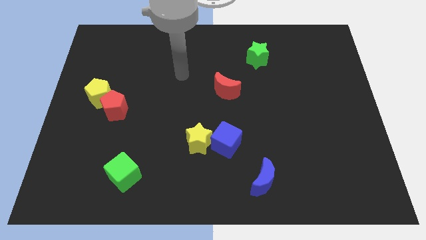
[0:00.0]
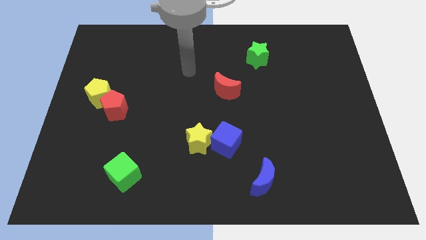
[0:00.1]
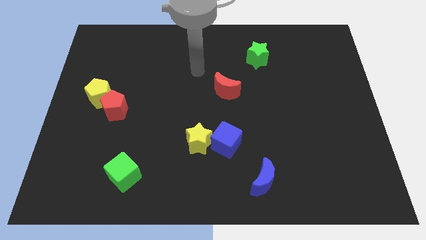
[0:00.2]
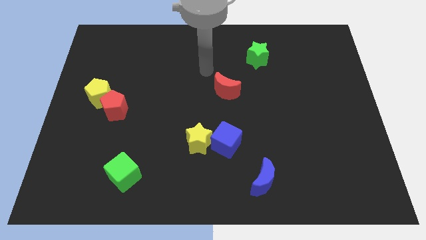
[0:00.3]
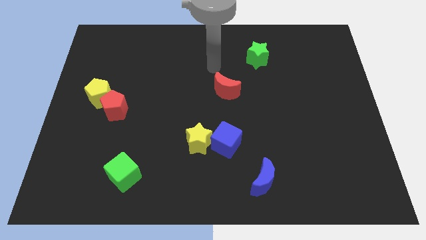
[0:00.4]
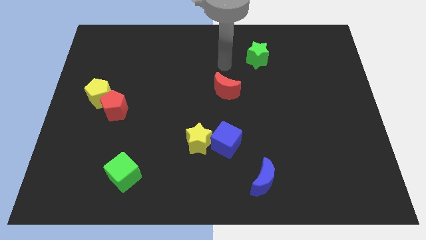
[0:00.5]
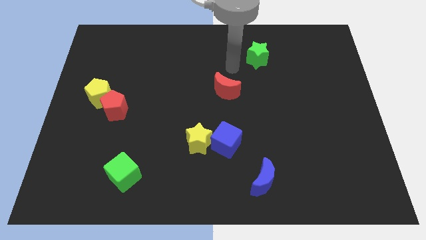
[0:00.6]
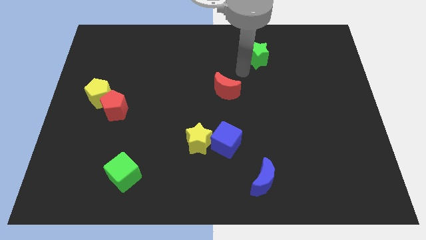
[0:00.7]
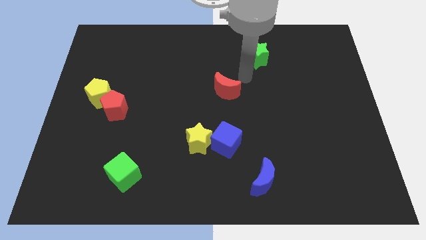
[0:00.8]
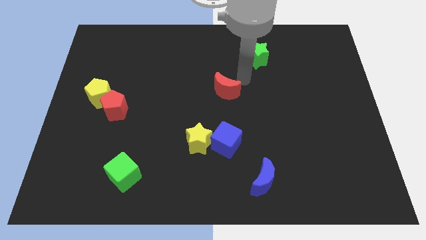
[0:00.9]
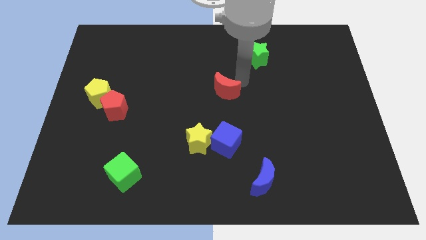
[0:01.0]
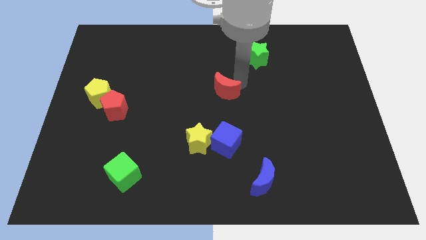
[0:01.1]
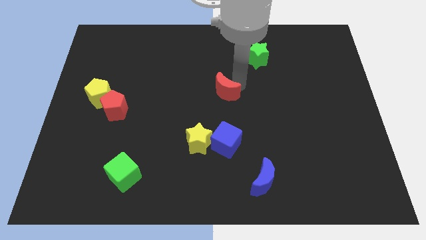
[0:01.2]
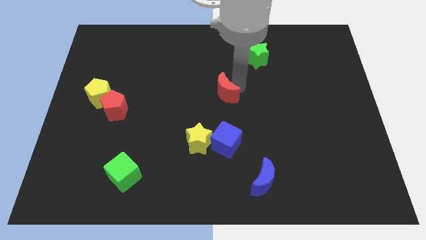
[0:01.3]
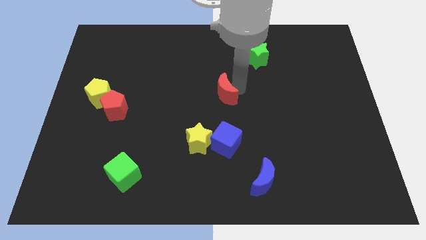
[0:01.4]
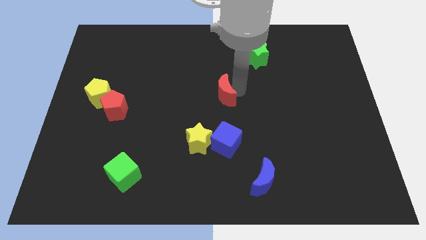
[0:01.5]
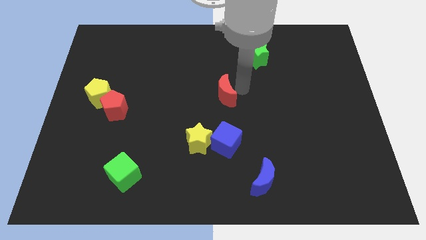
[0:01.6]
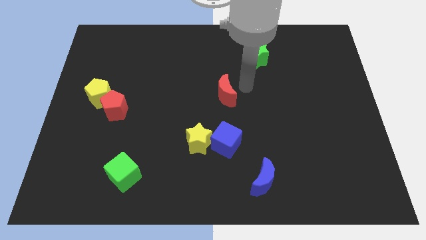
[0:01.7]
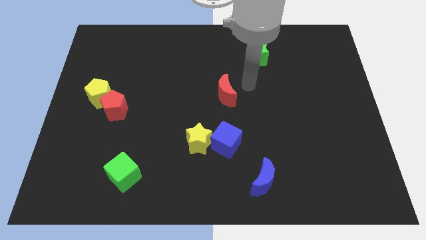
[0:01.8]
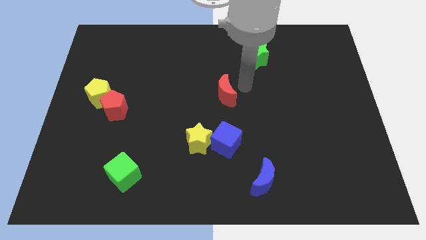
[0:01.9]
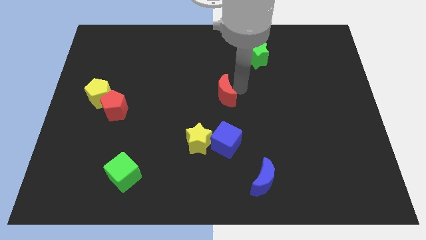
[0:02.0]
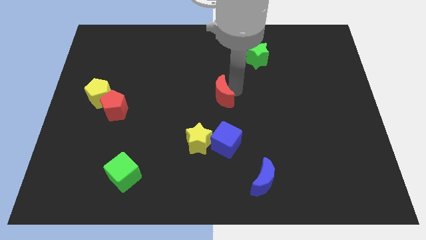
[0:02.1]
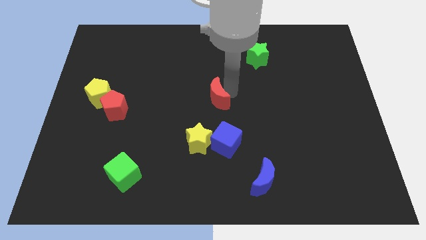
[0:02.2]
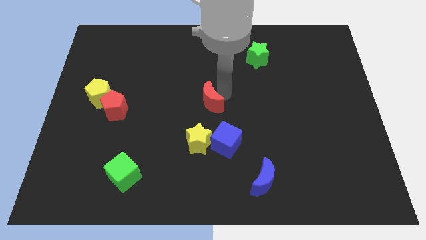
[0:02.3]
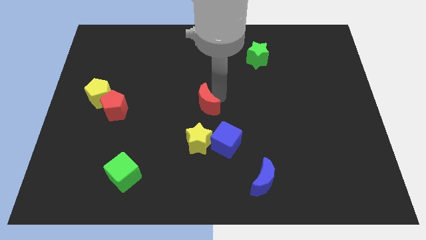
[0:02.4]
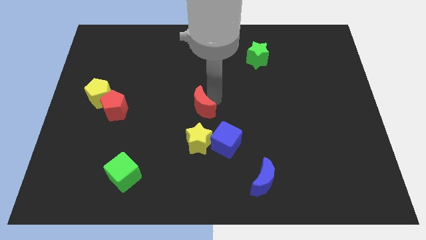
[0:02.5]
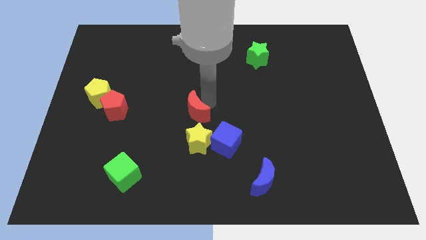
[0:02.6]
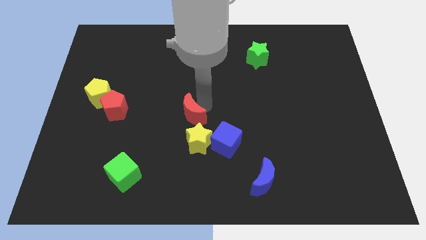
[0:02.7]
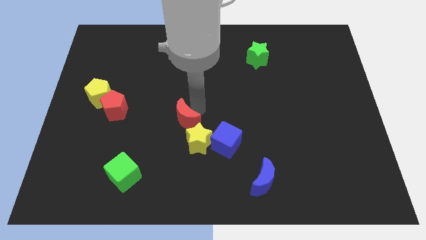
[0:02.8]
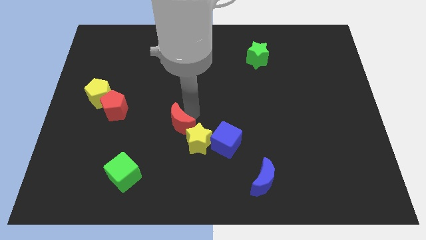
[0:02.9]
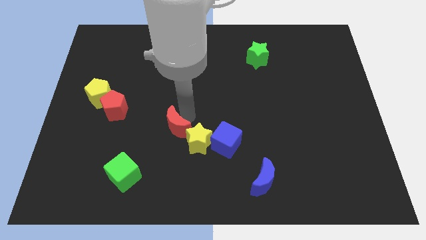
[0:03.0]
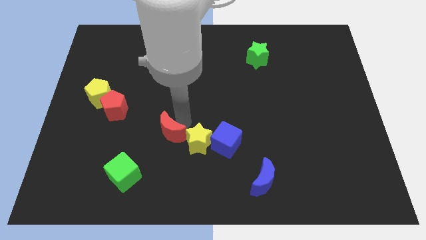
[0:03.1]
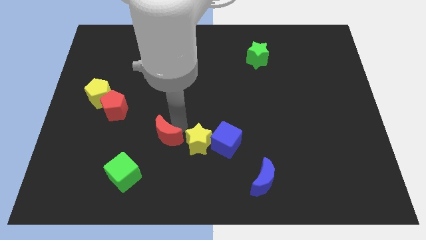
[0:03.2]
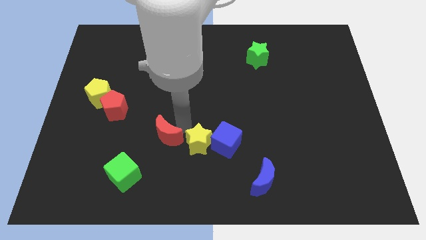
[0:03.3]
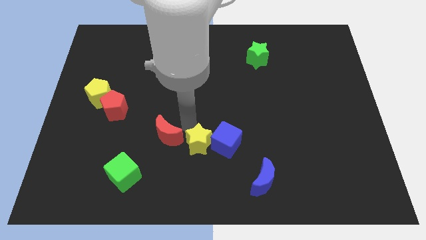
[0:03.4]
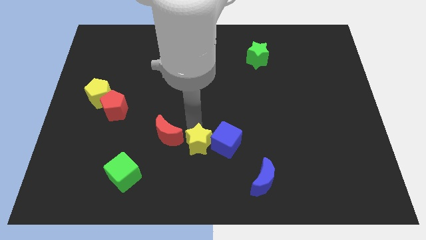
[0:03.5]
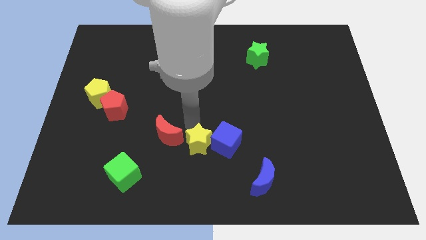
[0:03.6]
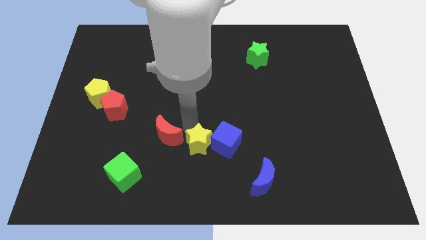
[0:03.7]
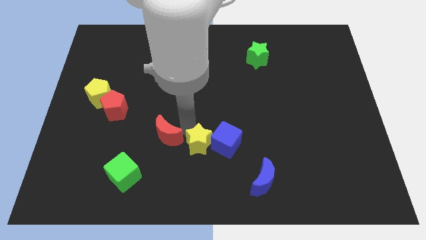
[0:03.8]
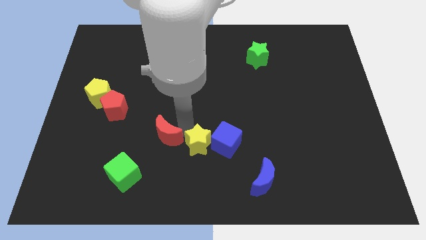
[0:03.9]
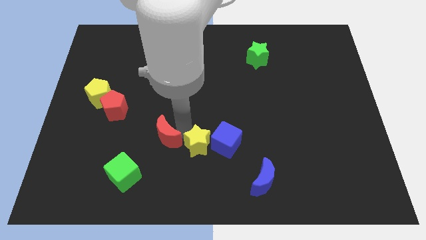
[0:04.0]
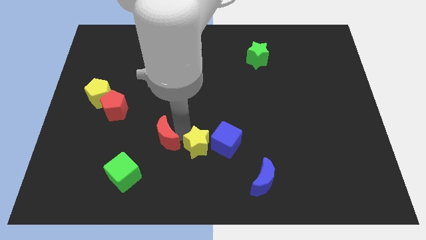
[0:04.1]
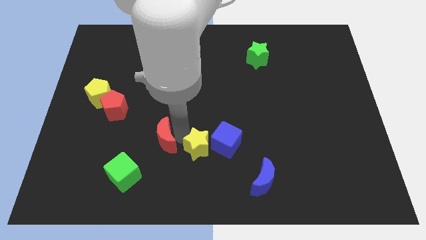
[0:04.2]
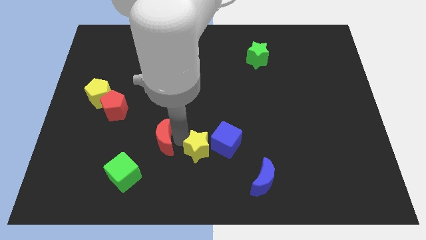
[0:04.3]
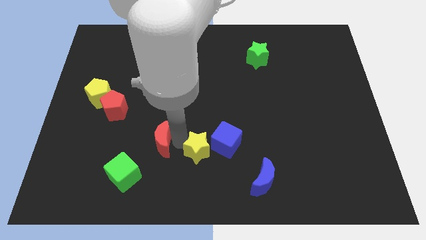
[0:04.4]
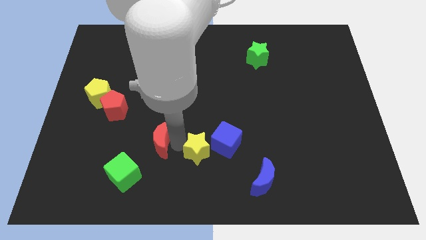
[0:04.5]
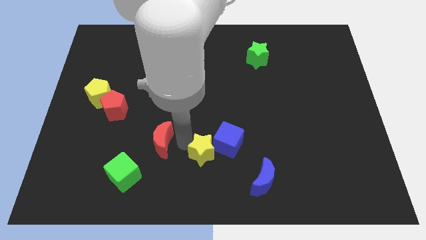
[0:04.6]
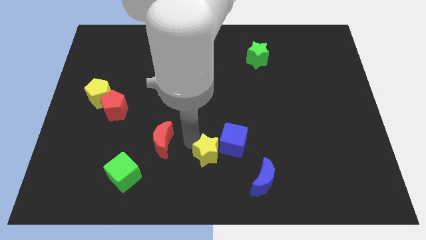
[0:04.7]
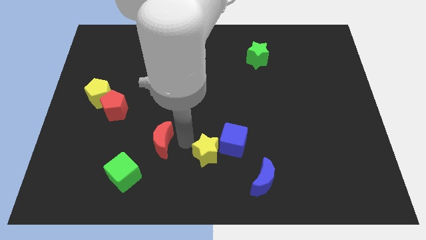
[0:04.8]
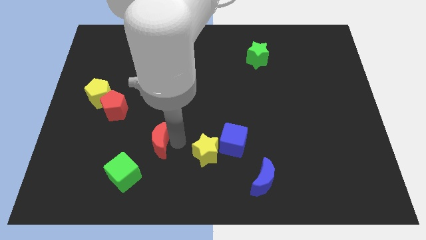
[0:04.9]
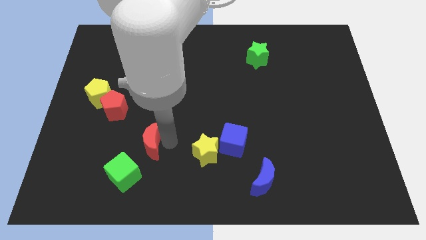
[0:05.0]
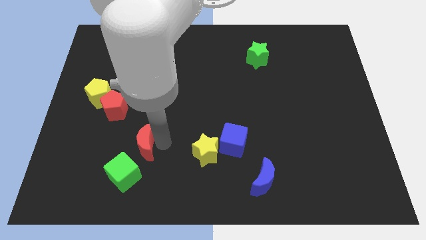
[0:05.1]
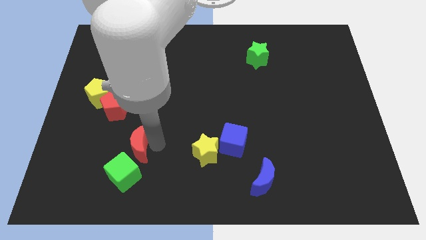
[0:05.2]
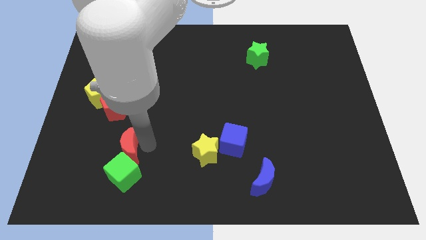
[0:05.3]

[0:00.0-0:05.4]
move the red moon to the top left of the green cube

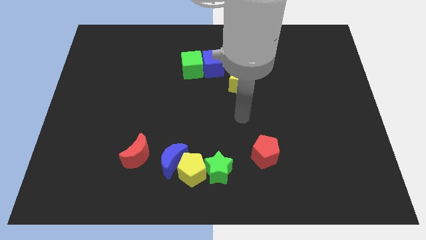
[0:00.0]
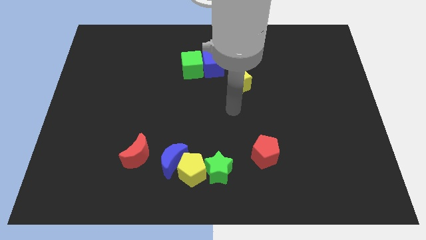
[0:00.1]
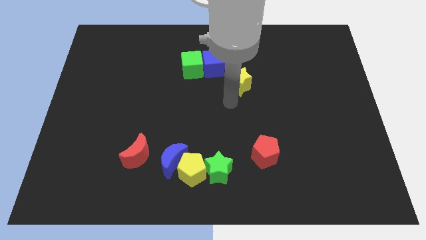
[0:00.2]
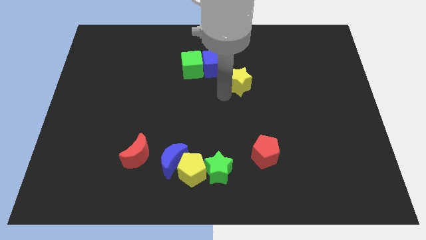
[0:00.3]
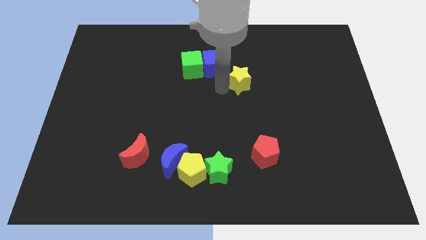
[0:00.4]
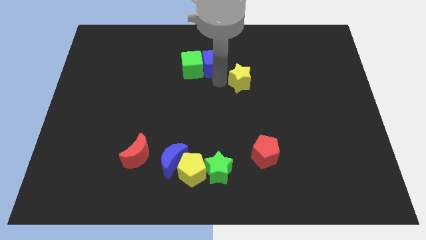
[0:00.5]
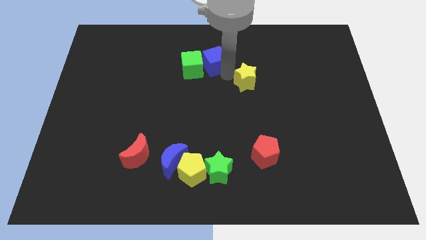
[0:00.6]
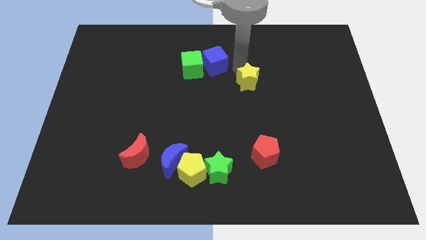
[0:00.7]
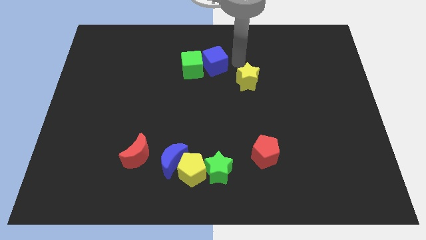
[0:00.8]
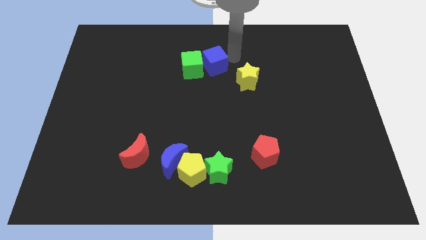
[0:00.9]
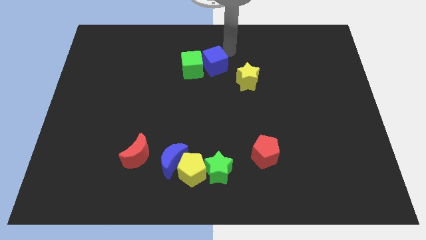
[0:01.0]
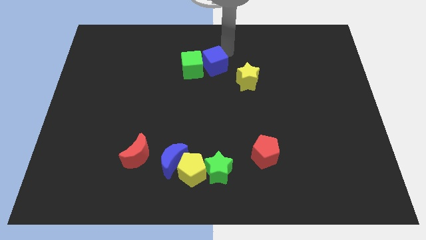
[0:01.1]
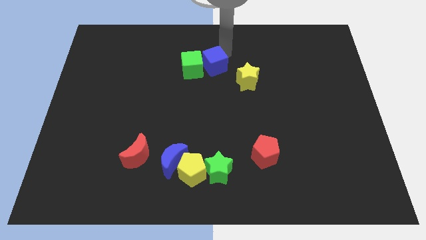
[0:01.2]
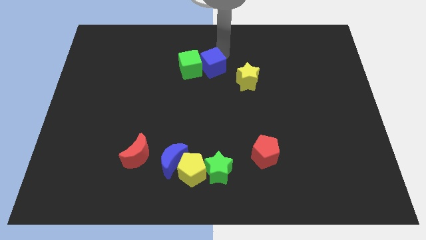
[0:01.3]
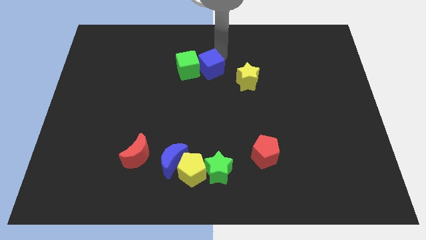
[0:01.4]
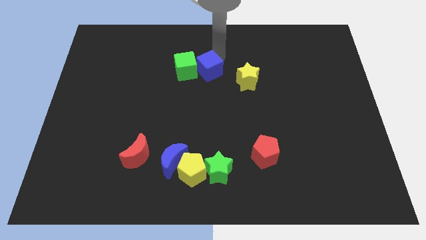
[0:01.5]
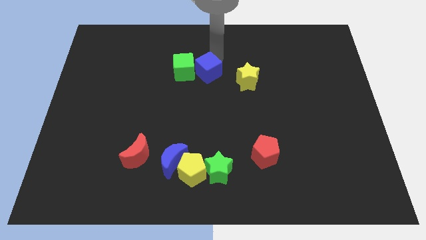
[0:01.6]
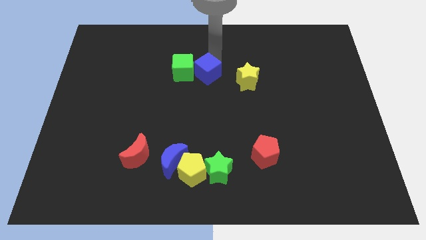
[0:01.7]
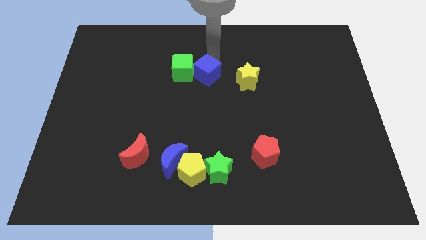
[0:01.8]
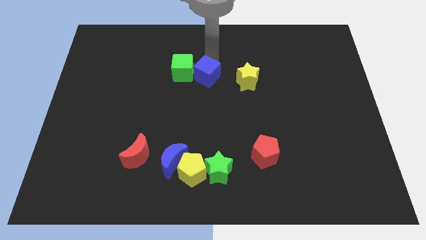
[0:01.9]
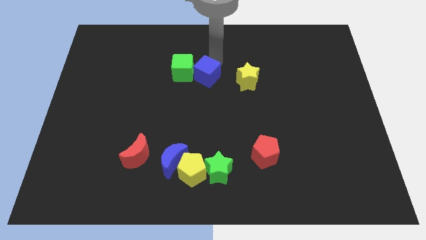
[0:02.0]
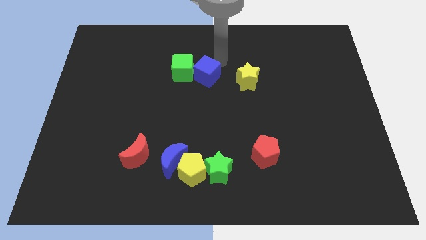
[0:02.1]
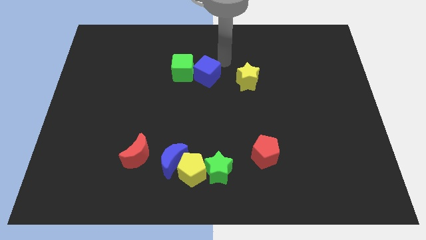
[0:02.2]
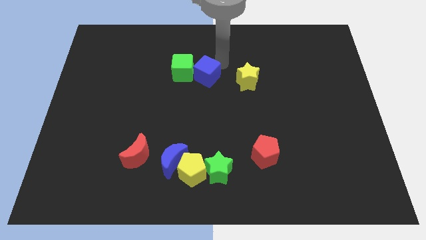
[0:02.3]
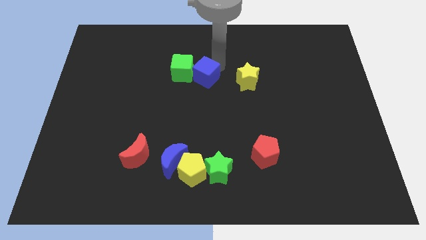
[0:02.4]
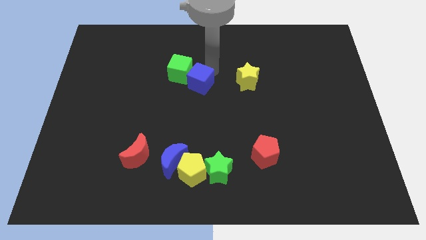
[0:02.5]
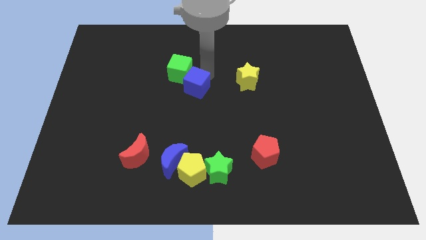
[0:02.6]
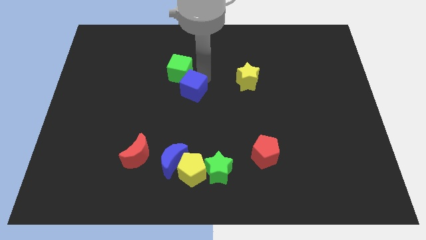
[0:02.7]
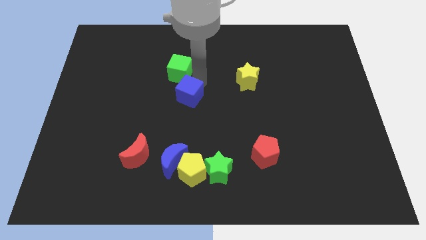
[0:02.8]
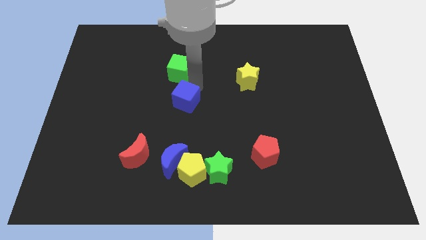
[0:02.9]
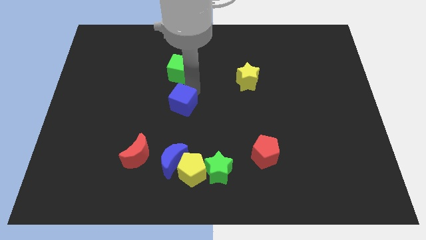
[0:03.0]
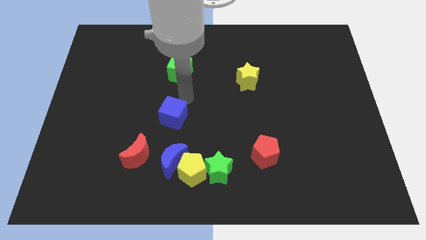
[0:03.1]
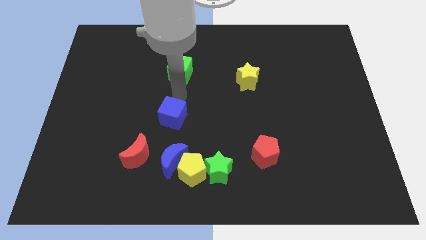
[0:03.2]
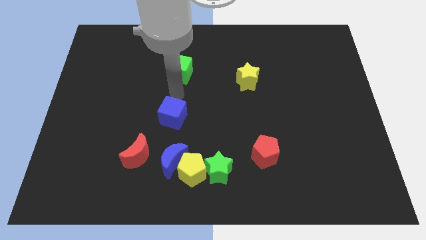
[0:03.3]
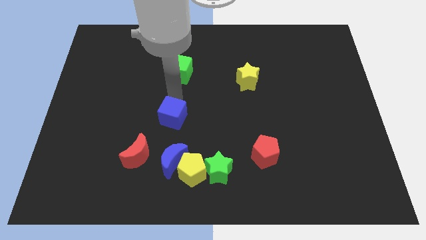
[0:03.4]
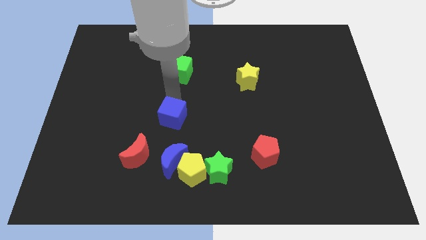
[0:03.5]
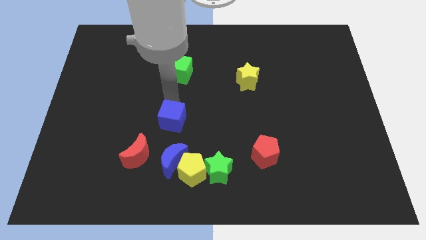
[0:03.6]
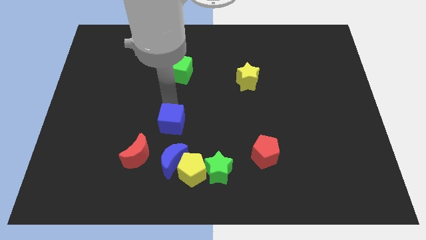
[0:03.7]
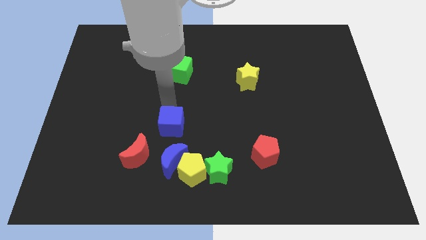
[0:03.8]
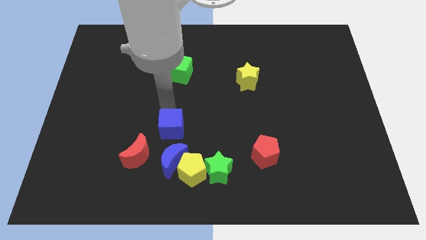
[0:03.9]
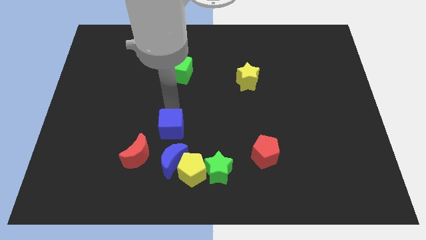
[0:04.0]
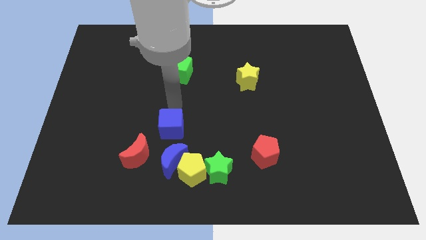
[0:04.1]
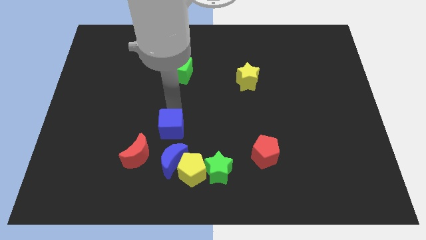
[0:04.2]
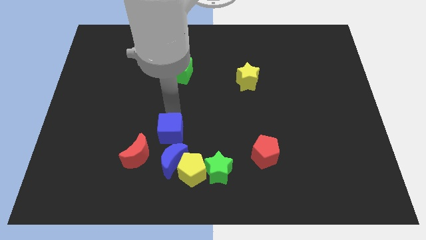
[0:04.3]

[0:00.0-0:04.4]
push the blue cube to the top left of the yellow pentagon
